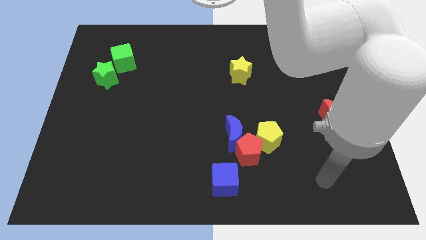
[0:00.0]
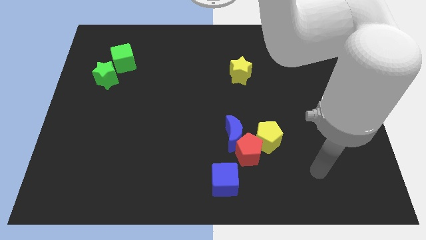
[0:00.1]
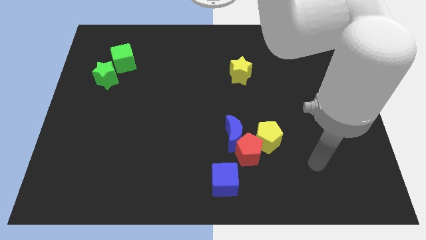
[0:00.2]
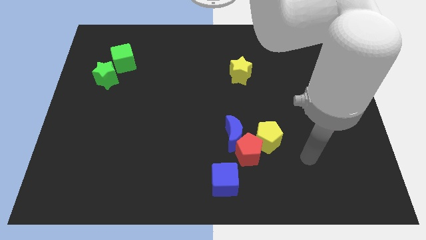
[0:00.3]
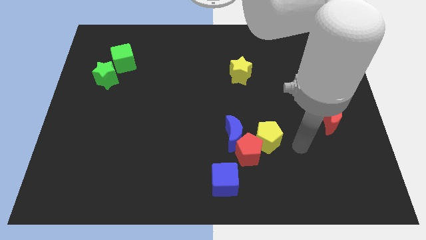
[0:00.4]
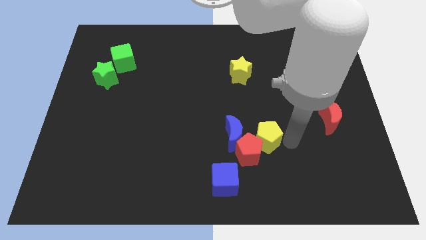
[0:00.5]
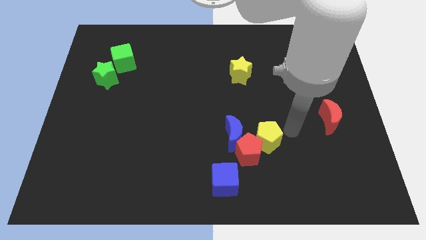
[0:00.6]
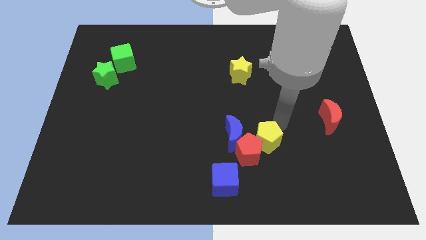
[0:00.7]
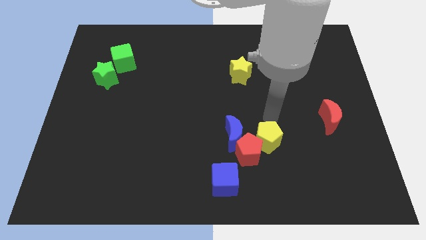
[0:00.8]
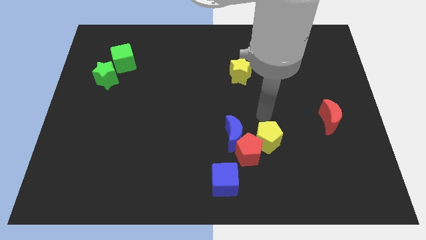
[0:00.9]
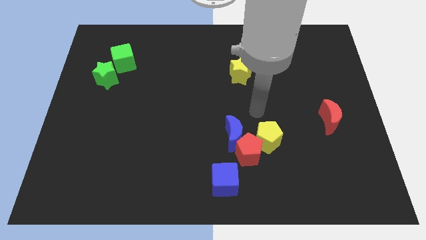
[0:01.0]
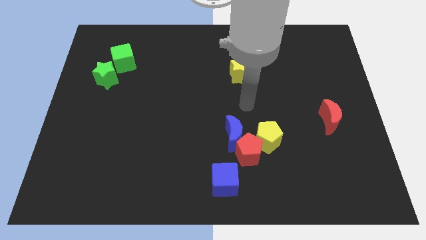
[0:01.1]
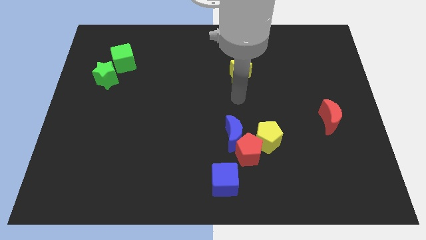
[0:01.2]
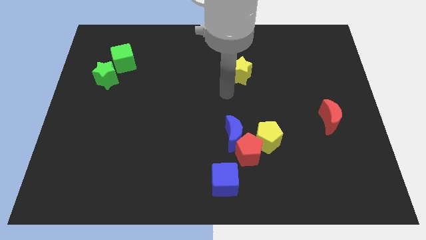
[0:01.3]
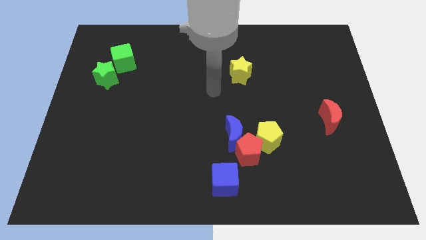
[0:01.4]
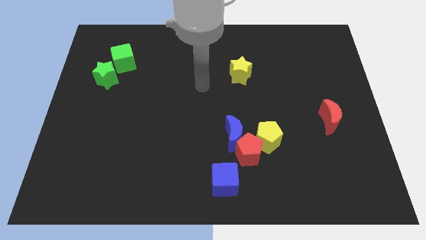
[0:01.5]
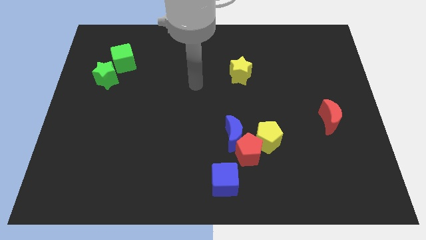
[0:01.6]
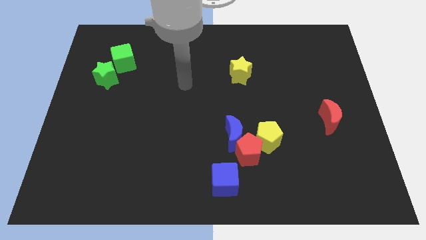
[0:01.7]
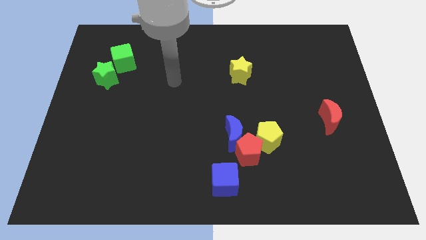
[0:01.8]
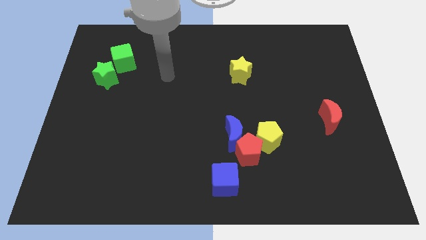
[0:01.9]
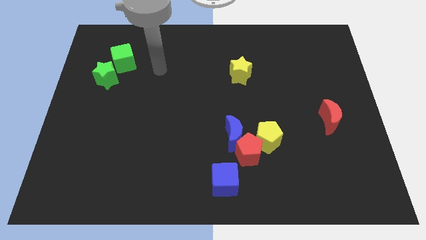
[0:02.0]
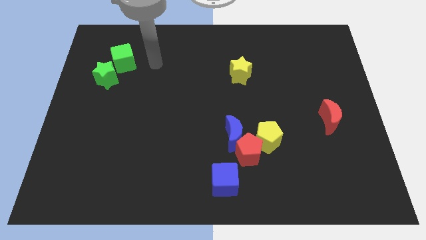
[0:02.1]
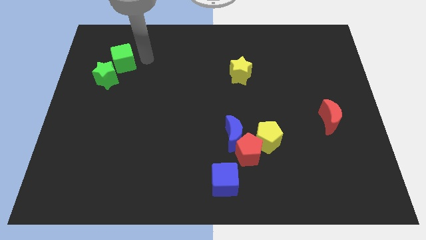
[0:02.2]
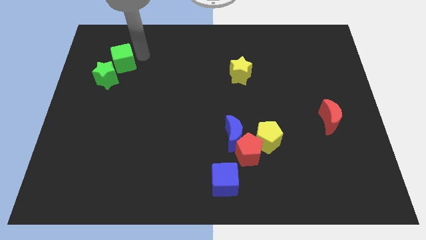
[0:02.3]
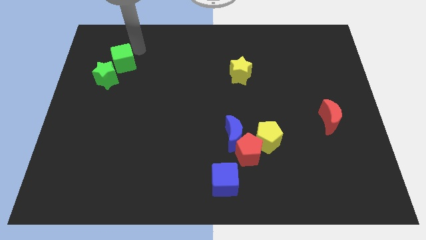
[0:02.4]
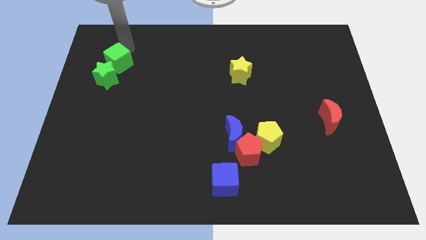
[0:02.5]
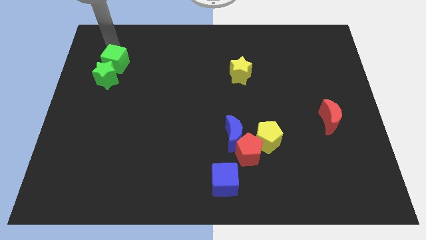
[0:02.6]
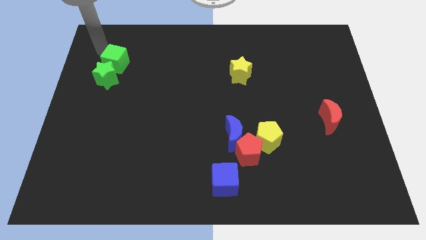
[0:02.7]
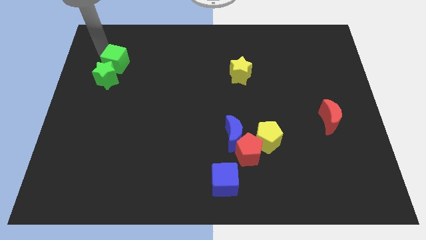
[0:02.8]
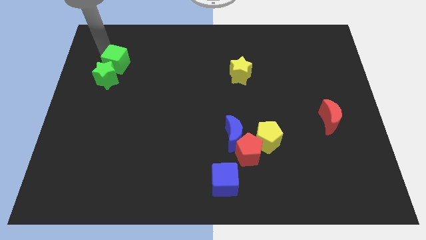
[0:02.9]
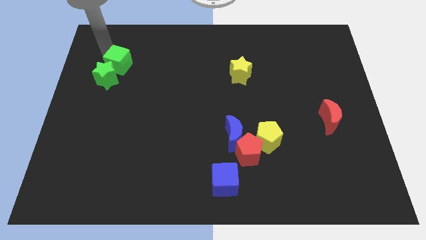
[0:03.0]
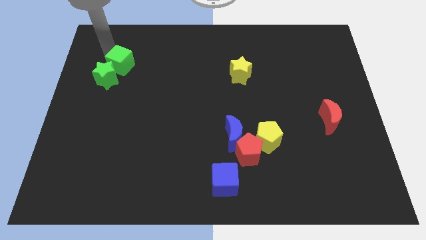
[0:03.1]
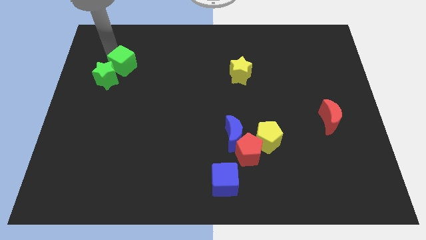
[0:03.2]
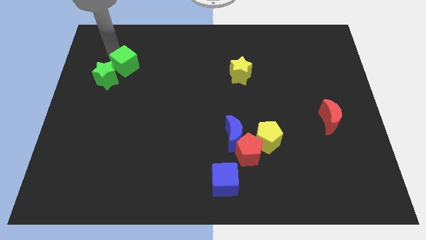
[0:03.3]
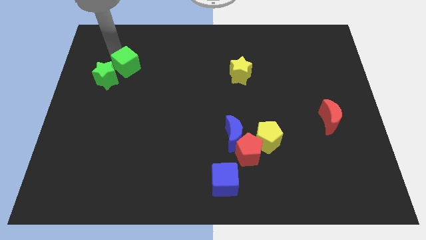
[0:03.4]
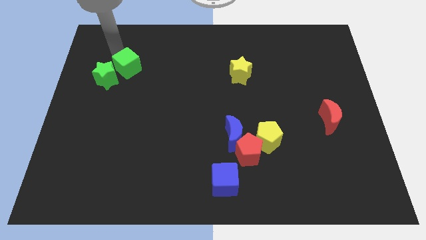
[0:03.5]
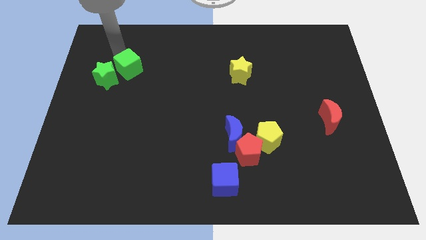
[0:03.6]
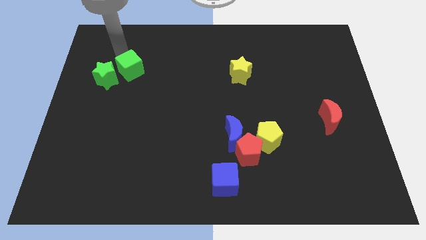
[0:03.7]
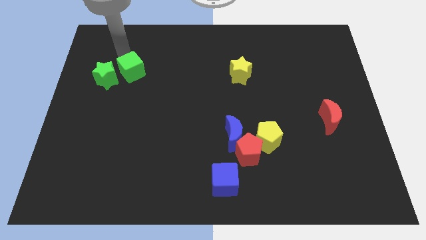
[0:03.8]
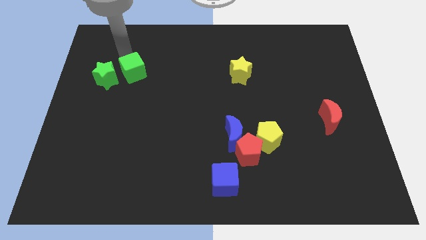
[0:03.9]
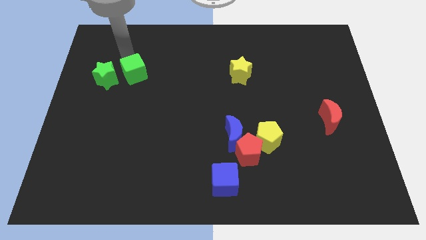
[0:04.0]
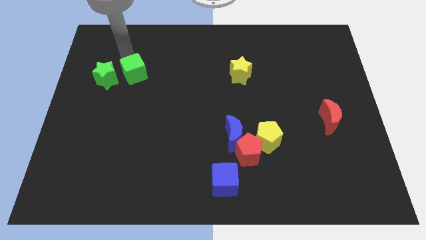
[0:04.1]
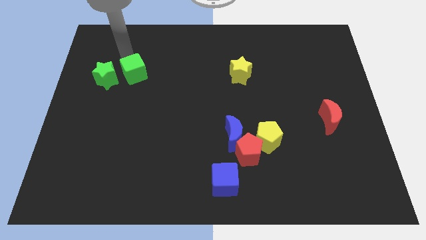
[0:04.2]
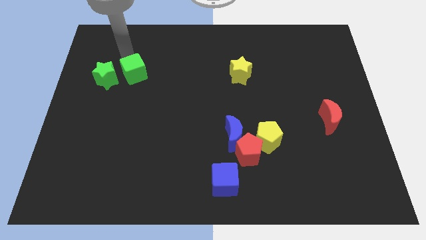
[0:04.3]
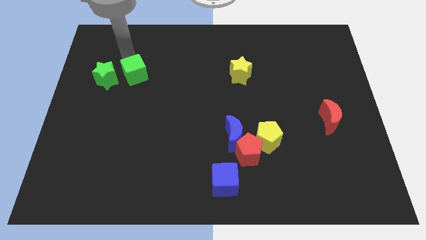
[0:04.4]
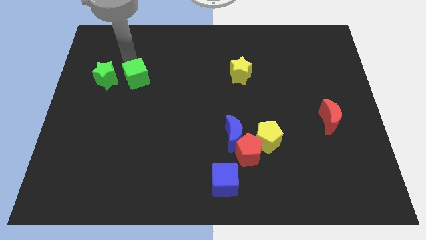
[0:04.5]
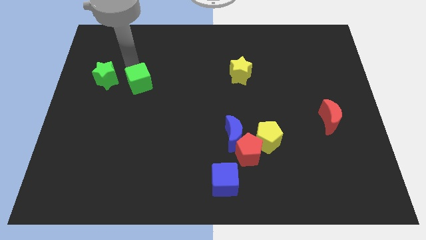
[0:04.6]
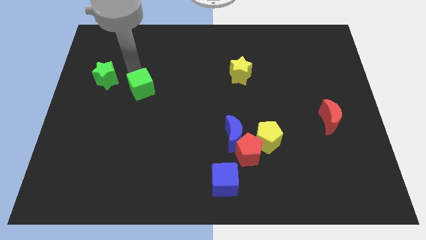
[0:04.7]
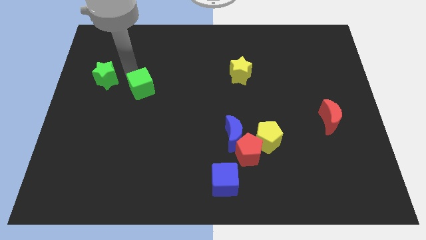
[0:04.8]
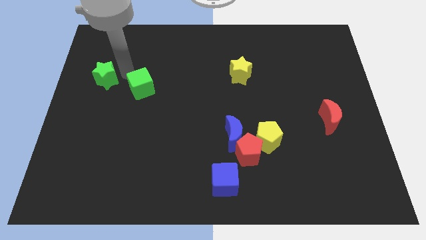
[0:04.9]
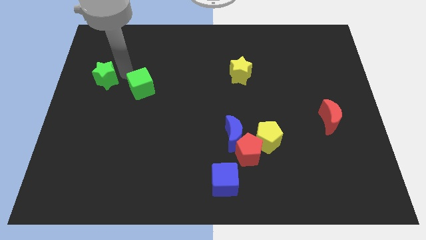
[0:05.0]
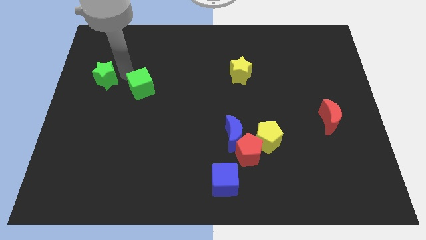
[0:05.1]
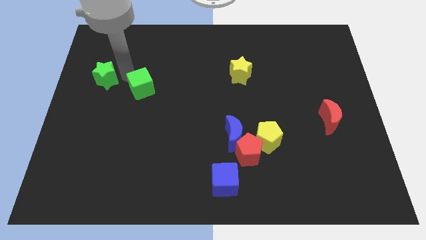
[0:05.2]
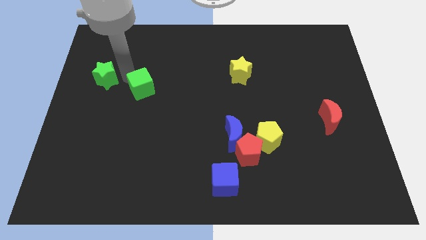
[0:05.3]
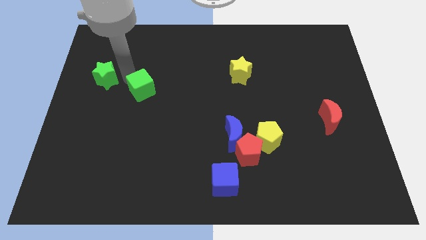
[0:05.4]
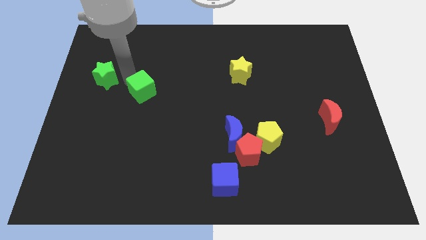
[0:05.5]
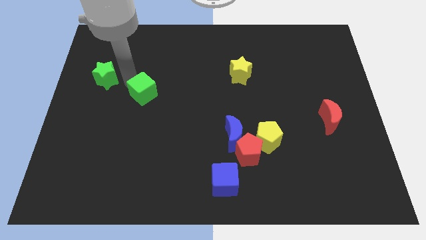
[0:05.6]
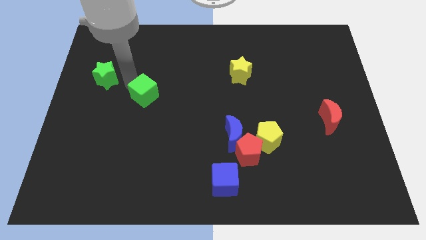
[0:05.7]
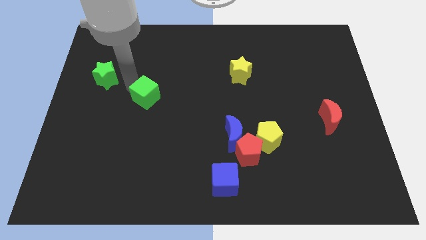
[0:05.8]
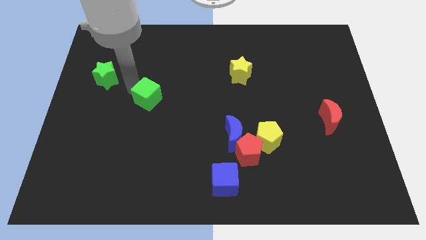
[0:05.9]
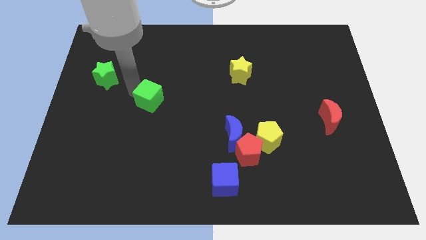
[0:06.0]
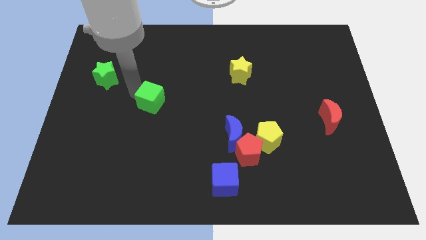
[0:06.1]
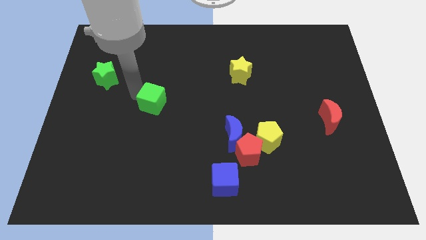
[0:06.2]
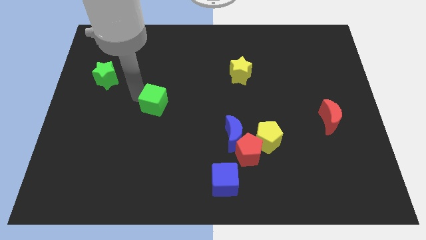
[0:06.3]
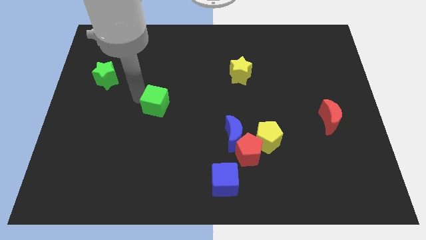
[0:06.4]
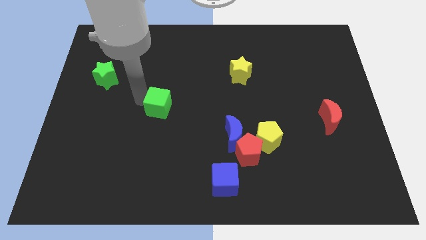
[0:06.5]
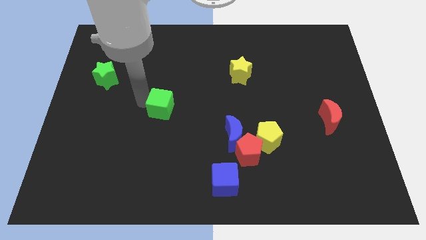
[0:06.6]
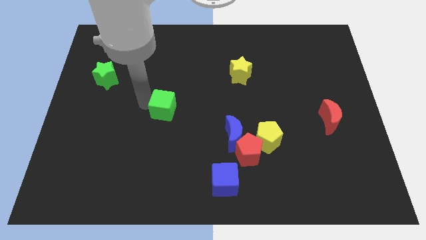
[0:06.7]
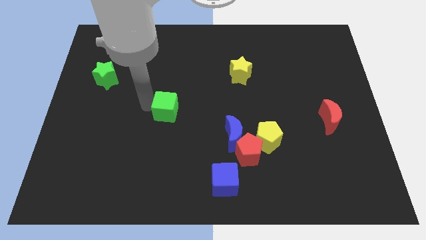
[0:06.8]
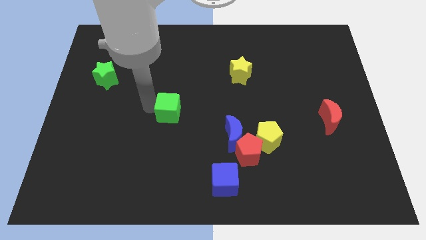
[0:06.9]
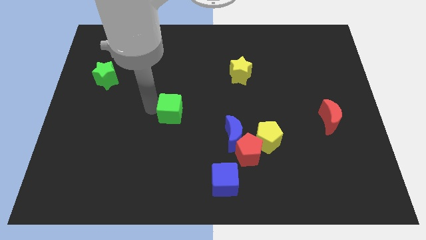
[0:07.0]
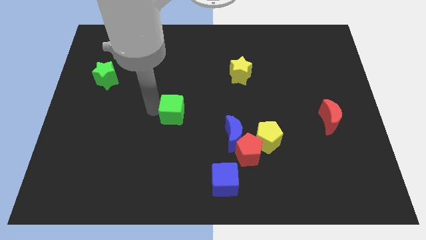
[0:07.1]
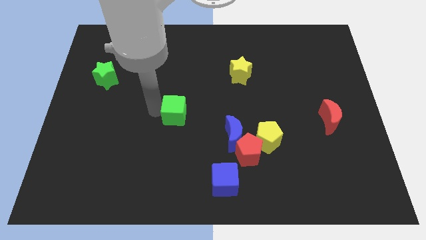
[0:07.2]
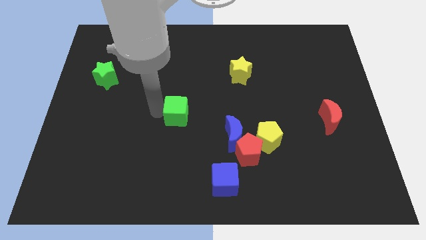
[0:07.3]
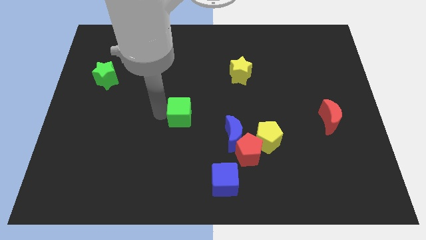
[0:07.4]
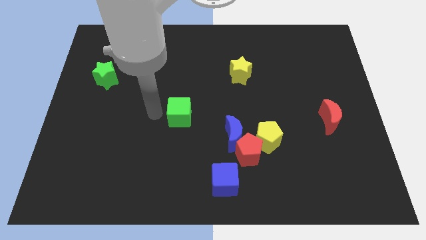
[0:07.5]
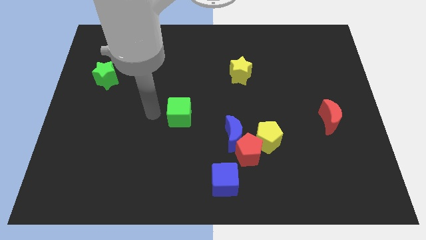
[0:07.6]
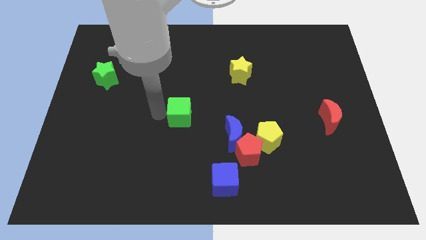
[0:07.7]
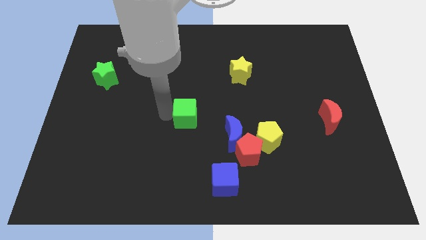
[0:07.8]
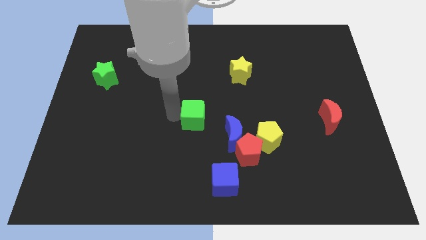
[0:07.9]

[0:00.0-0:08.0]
push the green cube to the top left of the blue moon

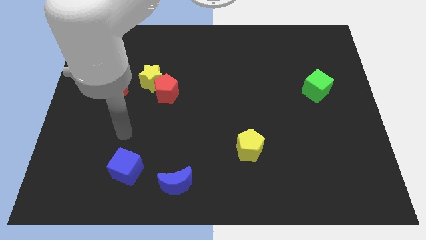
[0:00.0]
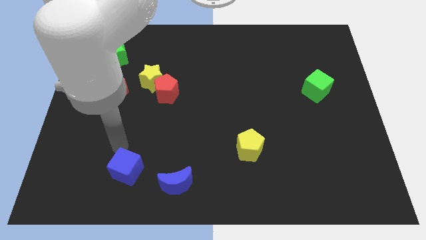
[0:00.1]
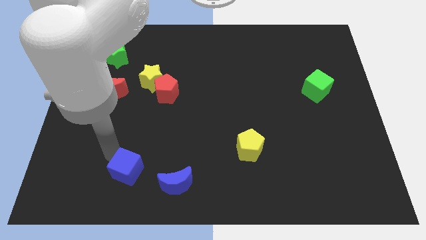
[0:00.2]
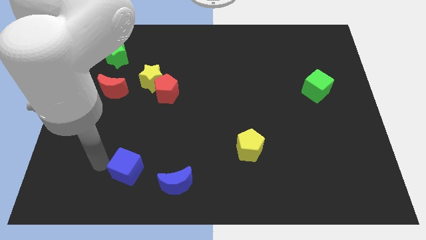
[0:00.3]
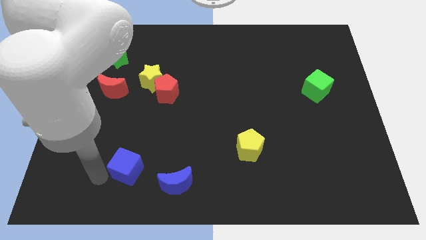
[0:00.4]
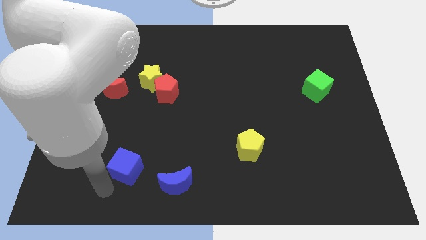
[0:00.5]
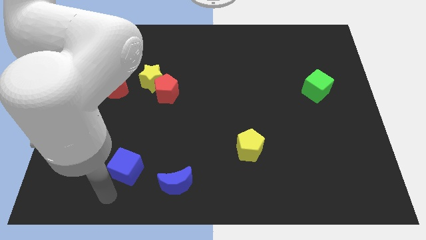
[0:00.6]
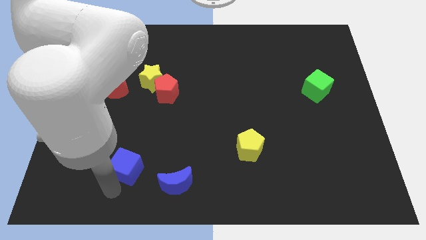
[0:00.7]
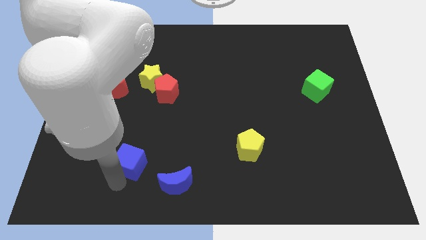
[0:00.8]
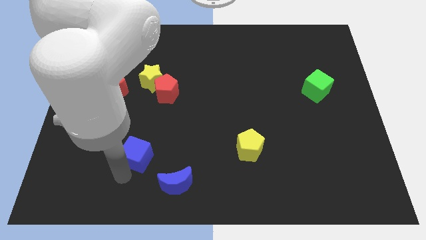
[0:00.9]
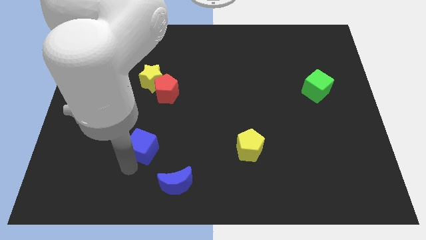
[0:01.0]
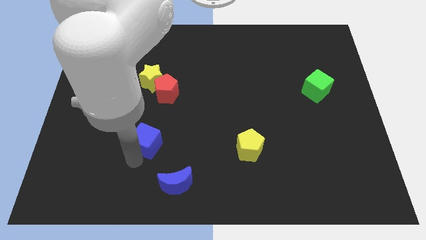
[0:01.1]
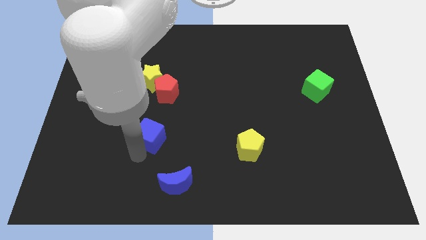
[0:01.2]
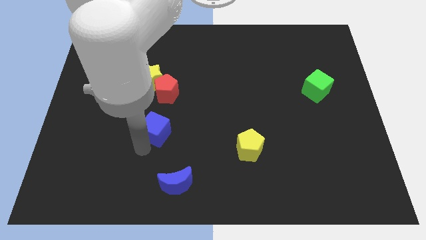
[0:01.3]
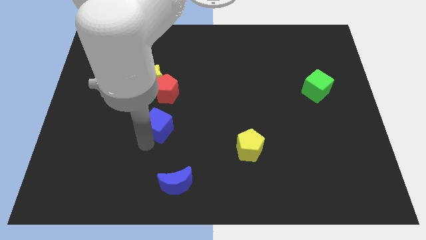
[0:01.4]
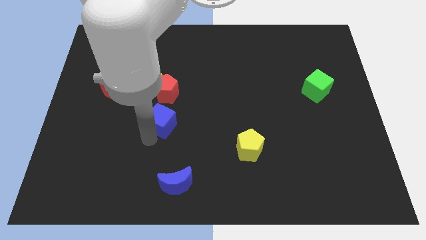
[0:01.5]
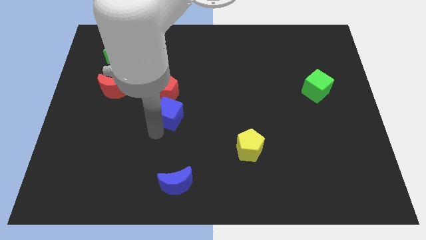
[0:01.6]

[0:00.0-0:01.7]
move the blue cube to the bottom right of the yellow star
